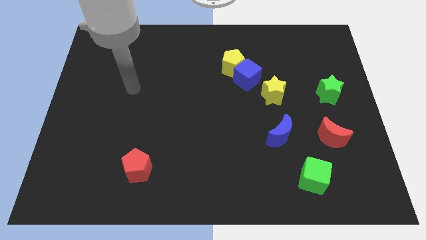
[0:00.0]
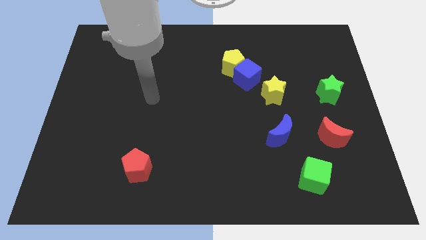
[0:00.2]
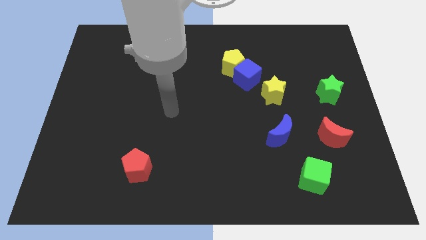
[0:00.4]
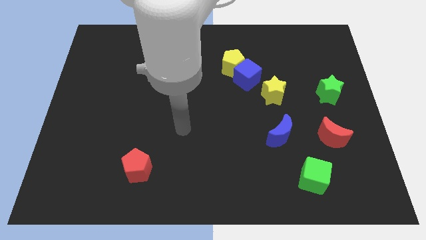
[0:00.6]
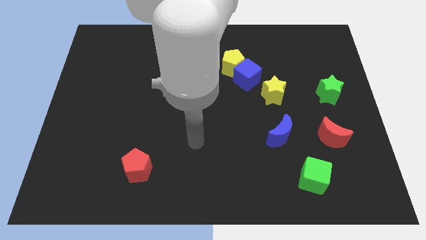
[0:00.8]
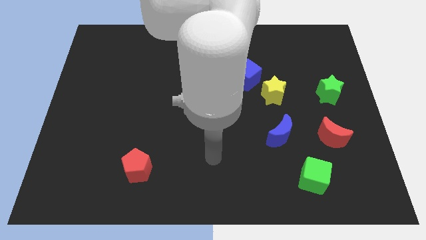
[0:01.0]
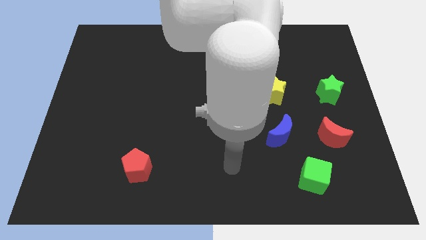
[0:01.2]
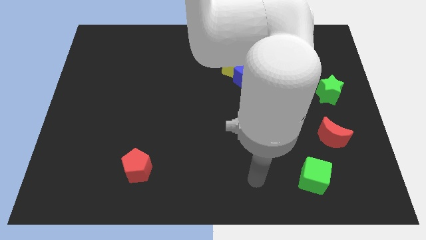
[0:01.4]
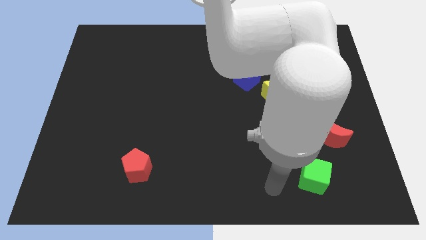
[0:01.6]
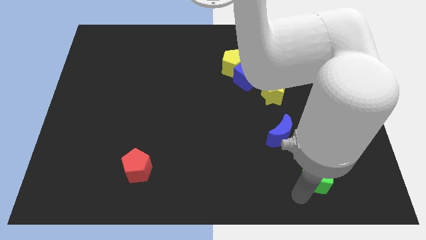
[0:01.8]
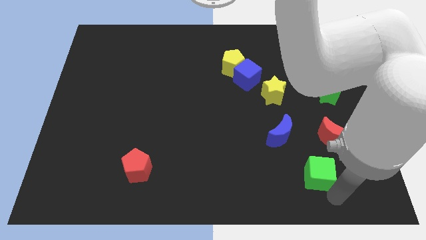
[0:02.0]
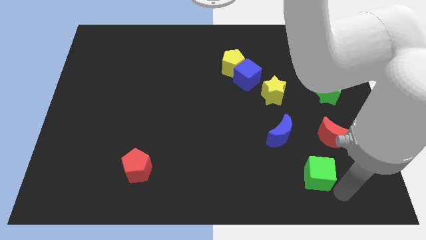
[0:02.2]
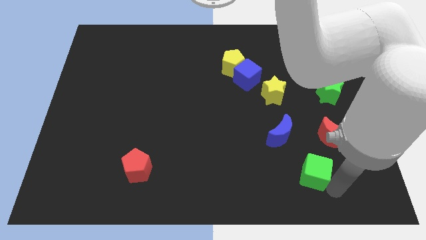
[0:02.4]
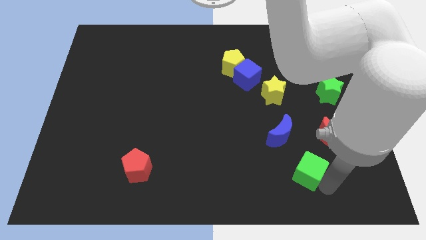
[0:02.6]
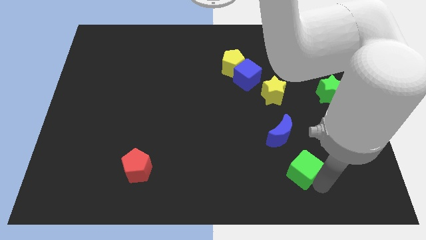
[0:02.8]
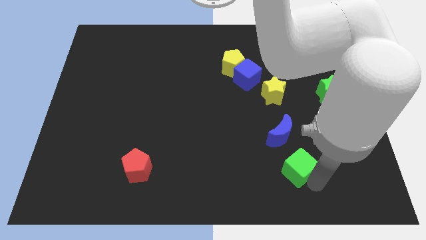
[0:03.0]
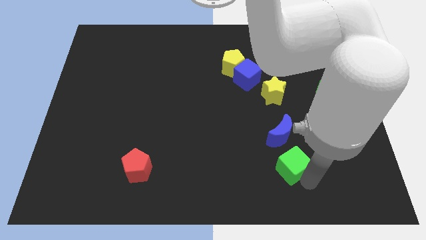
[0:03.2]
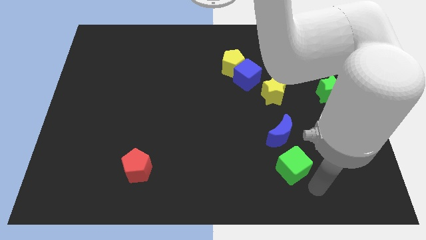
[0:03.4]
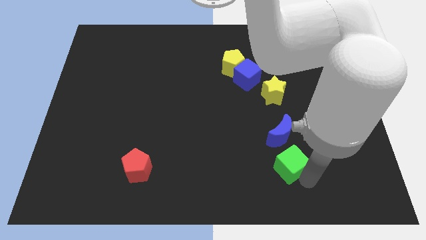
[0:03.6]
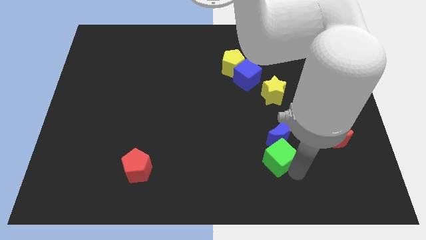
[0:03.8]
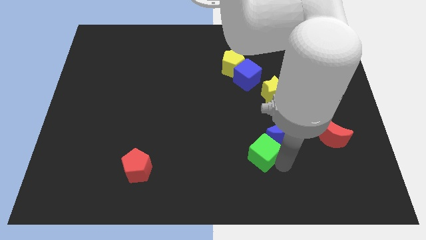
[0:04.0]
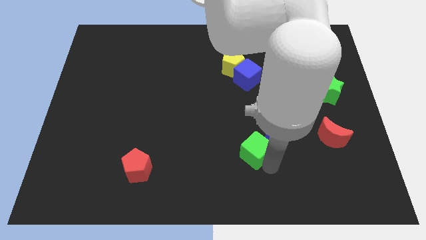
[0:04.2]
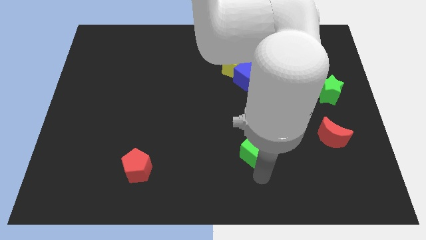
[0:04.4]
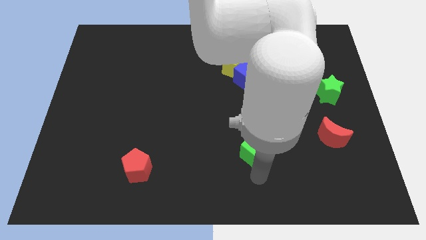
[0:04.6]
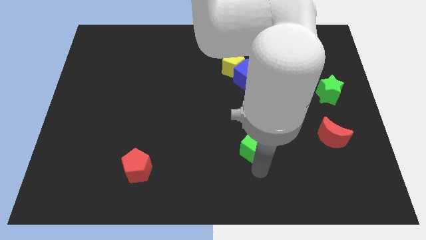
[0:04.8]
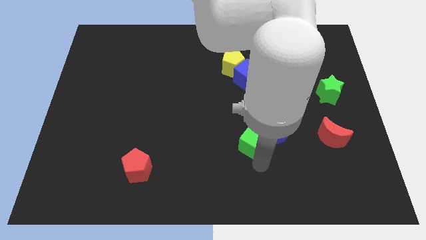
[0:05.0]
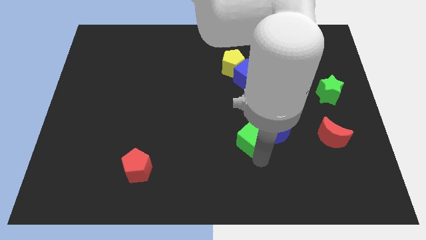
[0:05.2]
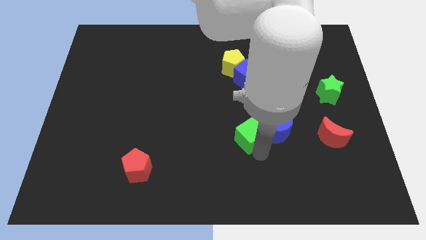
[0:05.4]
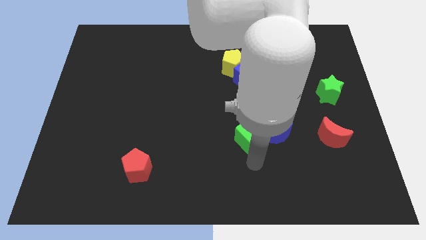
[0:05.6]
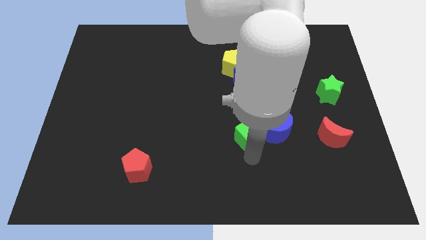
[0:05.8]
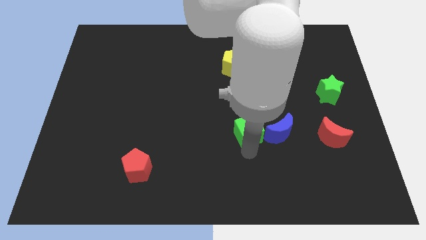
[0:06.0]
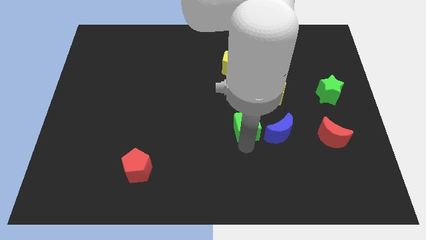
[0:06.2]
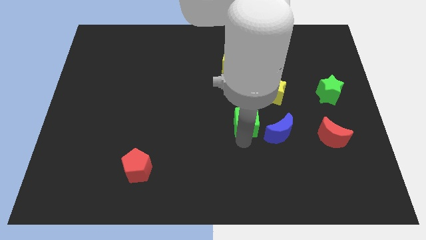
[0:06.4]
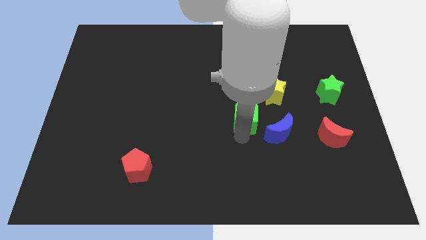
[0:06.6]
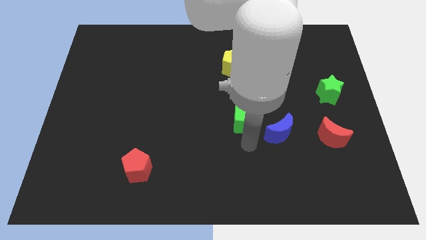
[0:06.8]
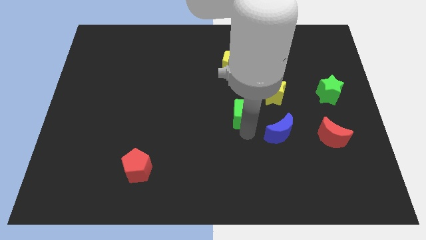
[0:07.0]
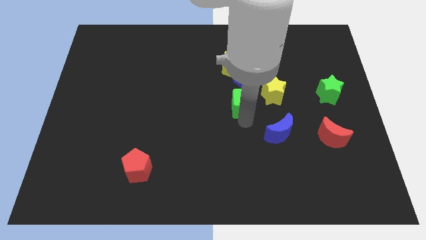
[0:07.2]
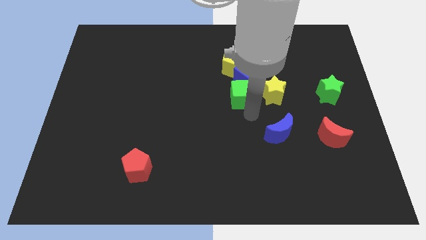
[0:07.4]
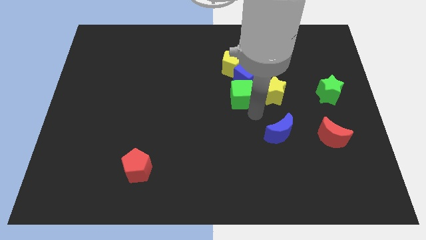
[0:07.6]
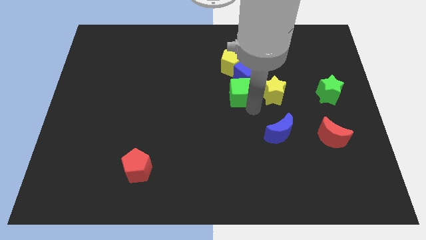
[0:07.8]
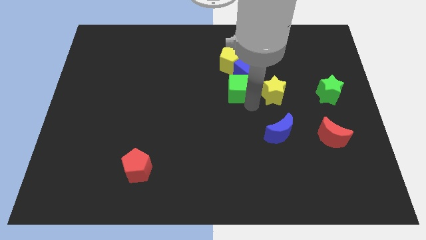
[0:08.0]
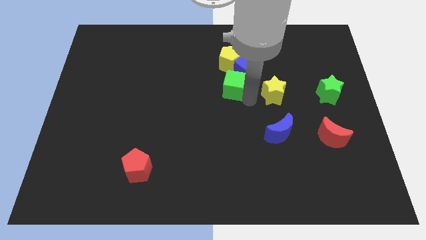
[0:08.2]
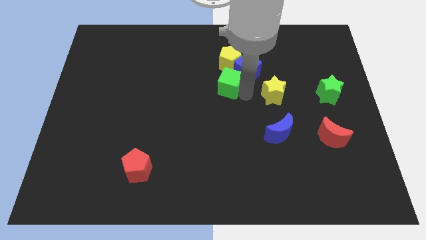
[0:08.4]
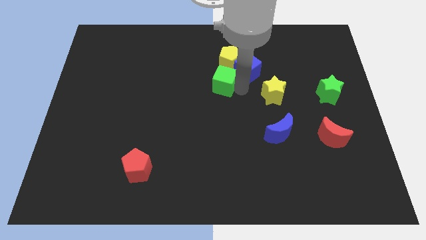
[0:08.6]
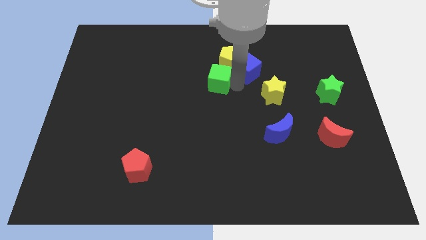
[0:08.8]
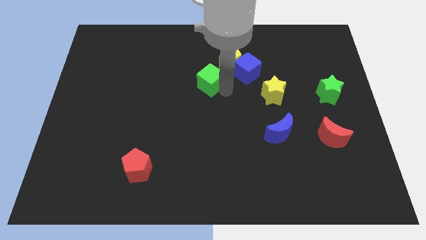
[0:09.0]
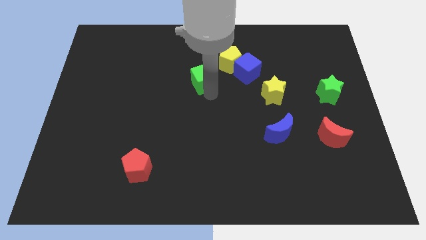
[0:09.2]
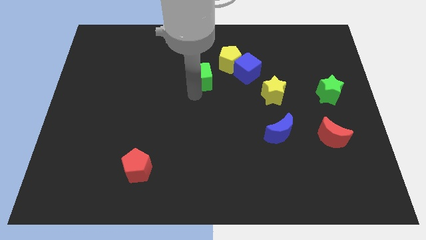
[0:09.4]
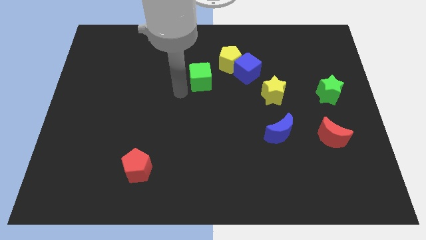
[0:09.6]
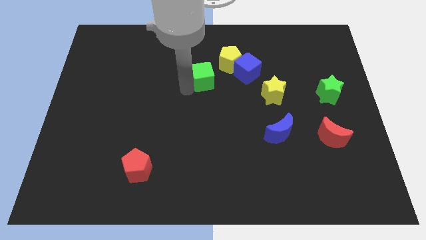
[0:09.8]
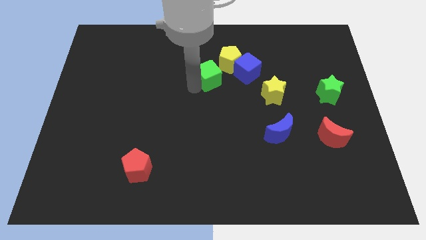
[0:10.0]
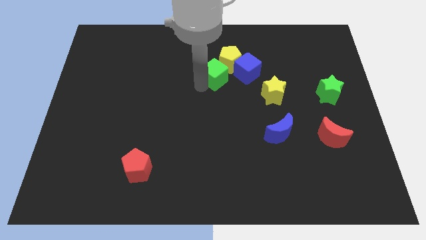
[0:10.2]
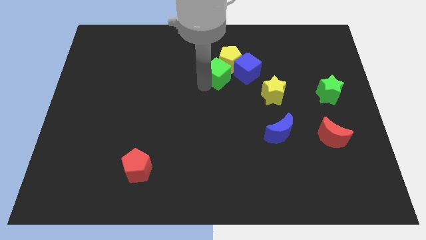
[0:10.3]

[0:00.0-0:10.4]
move the green cube towards the yellow pentagon

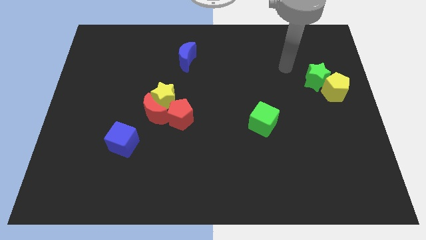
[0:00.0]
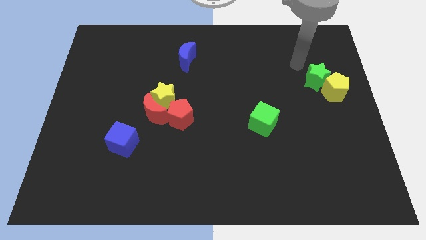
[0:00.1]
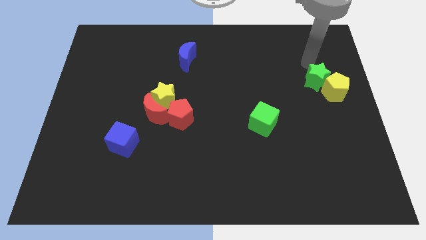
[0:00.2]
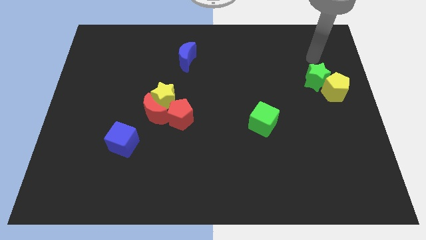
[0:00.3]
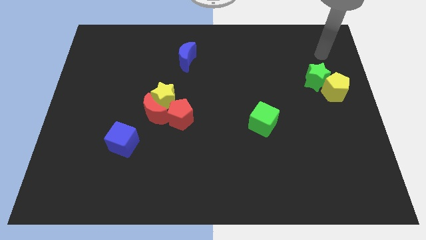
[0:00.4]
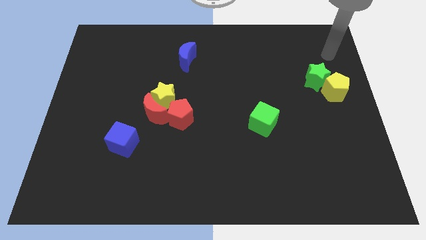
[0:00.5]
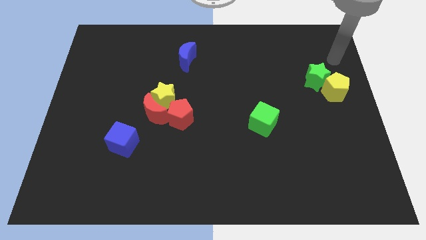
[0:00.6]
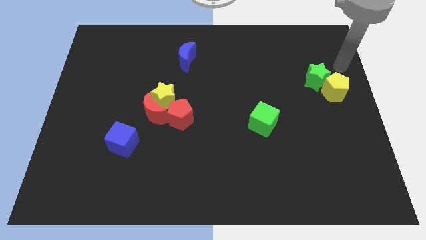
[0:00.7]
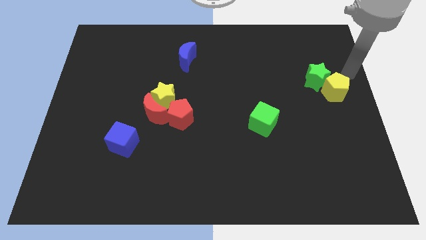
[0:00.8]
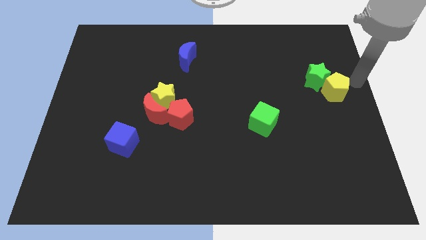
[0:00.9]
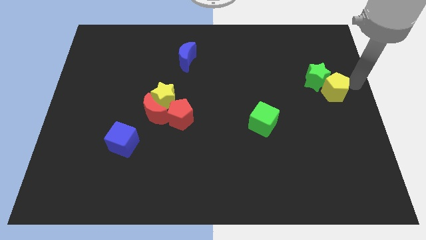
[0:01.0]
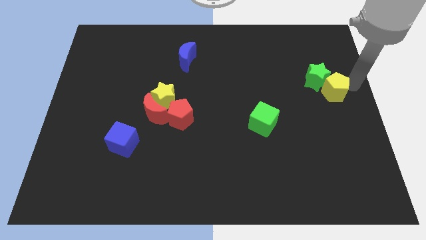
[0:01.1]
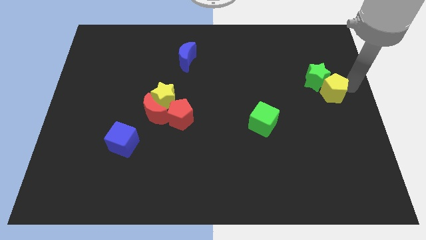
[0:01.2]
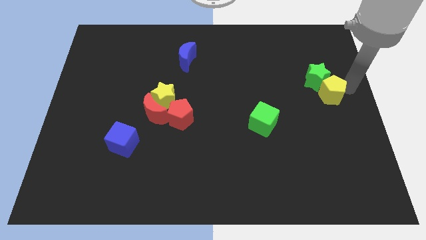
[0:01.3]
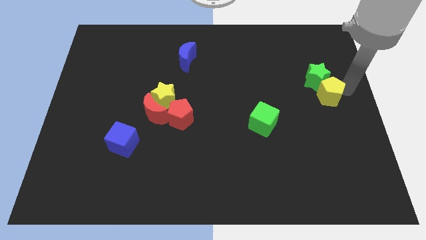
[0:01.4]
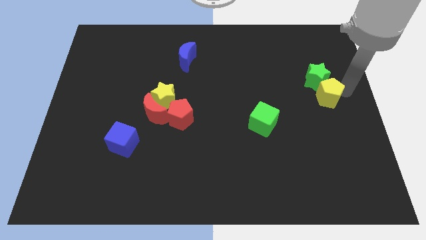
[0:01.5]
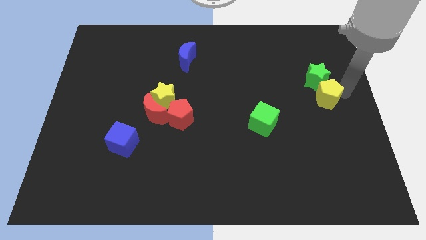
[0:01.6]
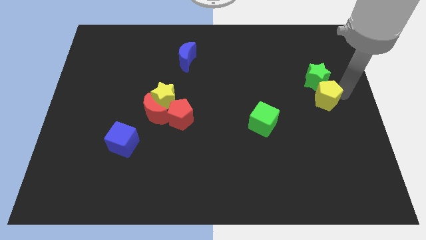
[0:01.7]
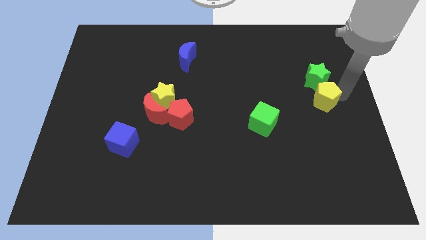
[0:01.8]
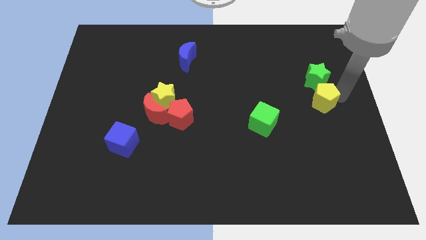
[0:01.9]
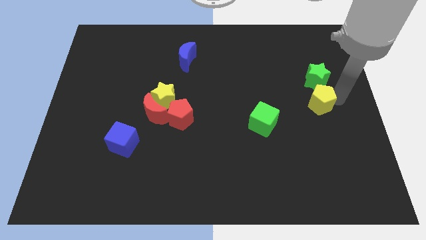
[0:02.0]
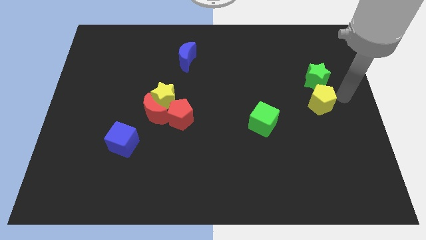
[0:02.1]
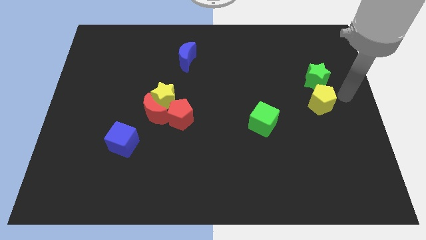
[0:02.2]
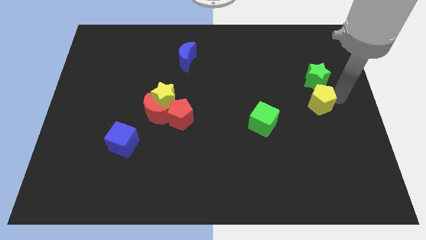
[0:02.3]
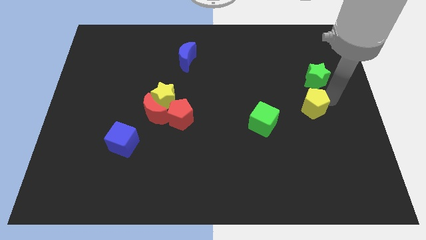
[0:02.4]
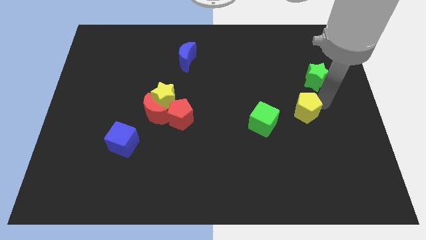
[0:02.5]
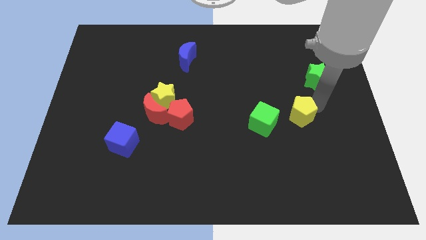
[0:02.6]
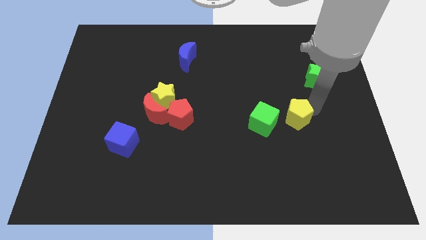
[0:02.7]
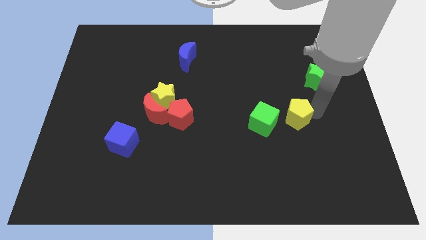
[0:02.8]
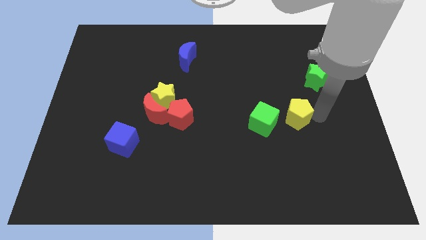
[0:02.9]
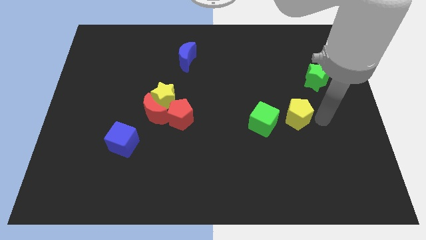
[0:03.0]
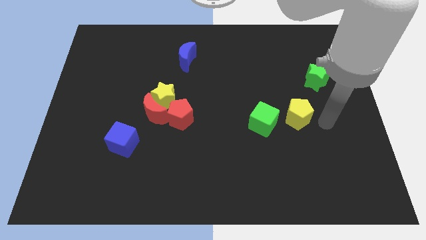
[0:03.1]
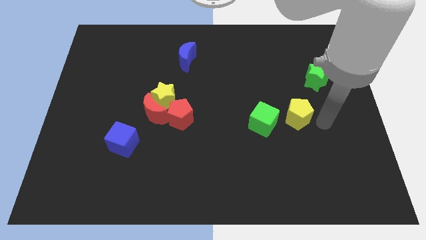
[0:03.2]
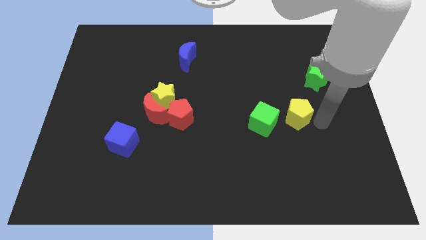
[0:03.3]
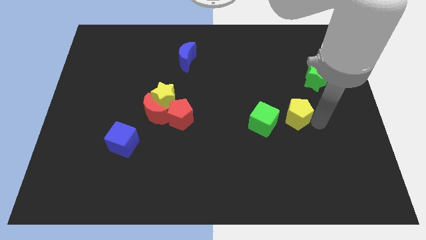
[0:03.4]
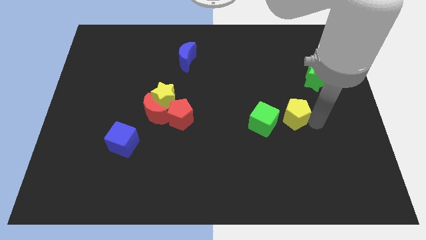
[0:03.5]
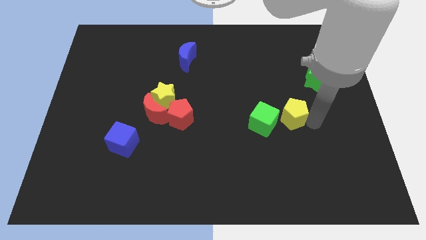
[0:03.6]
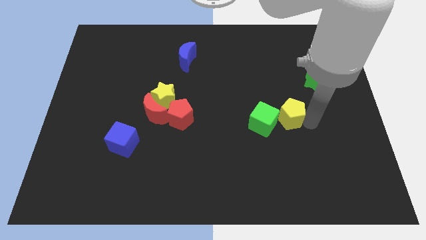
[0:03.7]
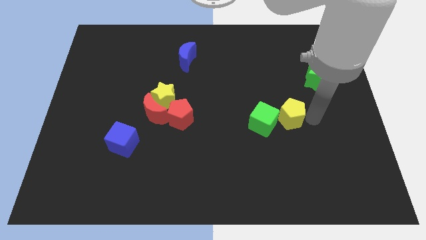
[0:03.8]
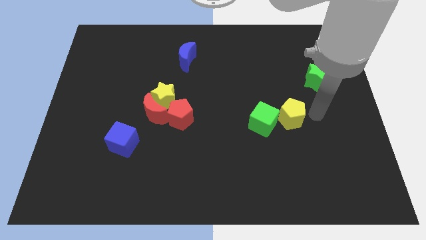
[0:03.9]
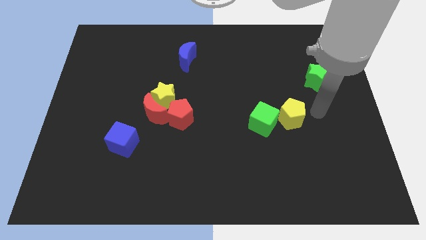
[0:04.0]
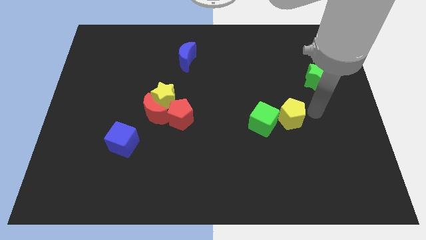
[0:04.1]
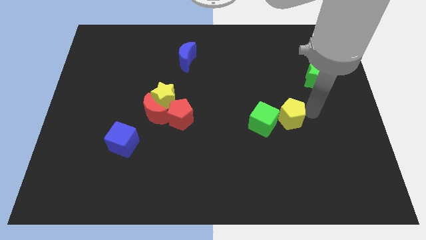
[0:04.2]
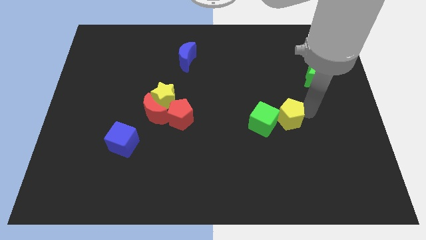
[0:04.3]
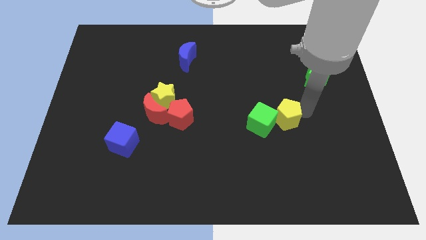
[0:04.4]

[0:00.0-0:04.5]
push the yellow pentagon next to the green cube
